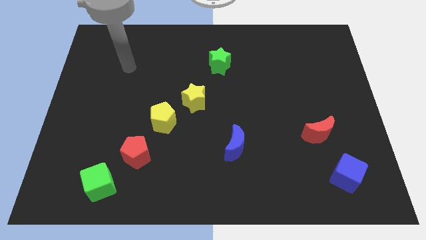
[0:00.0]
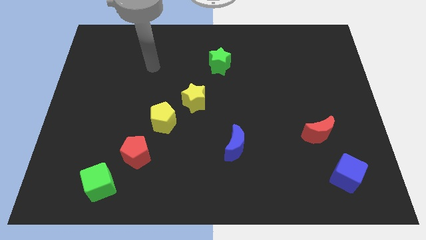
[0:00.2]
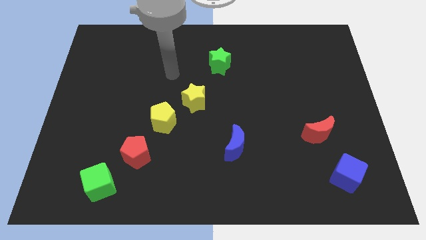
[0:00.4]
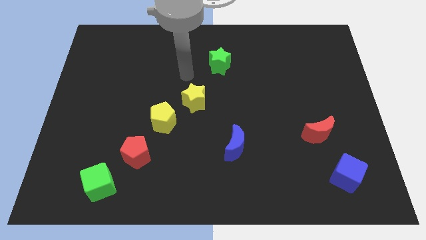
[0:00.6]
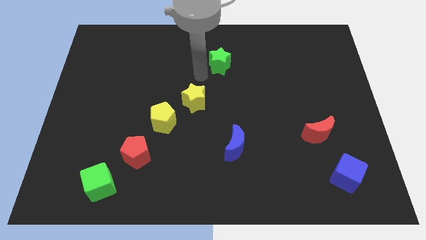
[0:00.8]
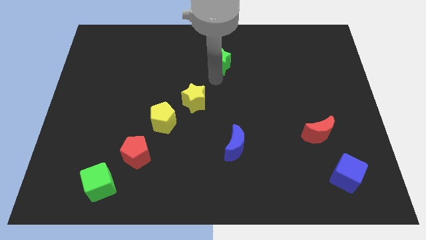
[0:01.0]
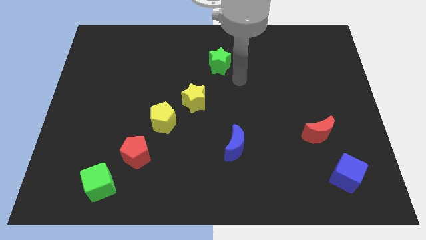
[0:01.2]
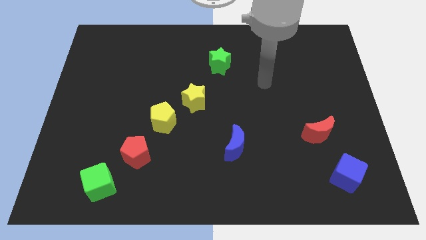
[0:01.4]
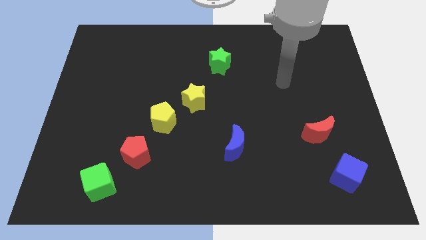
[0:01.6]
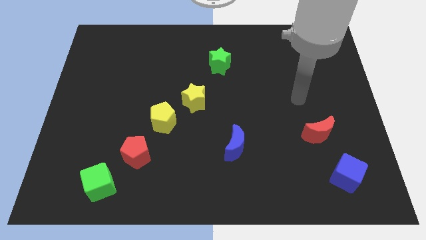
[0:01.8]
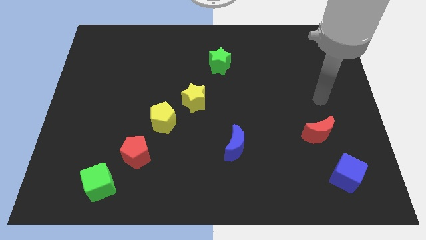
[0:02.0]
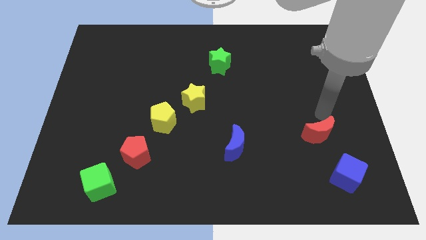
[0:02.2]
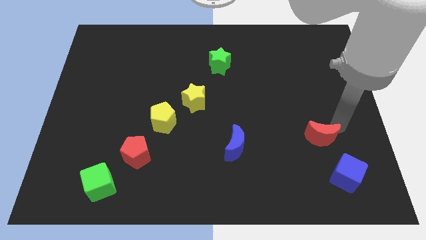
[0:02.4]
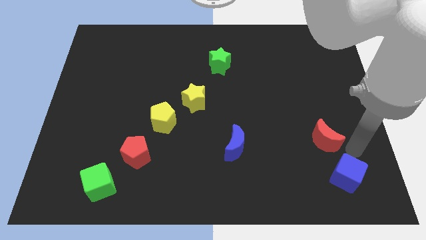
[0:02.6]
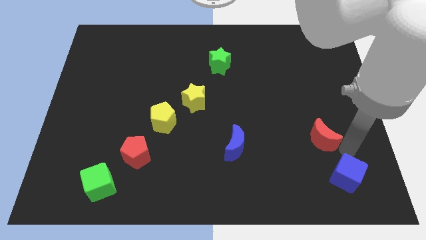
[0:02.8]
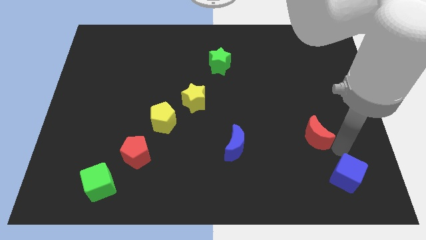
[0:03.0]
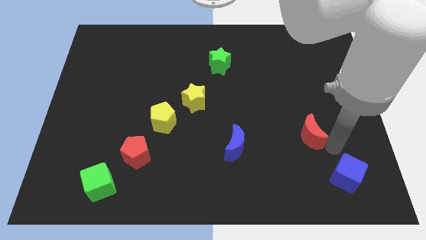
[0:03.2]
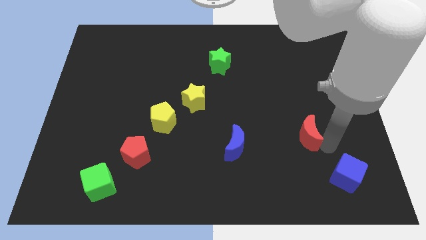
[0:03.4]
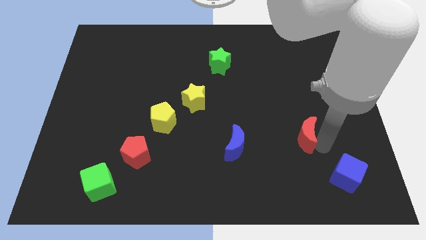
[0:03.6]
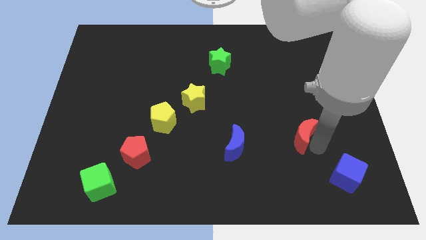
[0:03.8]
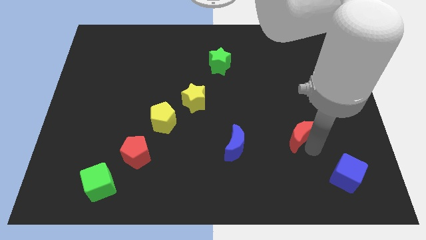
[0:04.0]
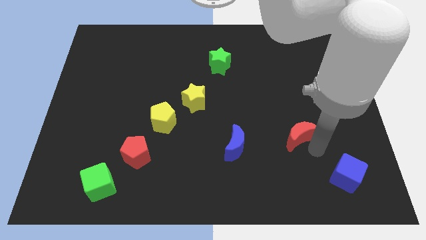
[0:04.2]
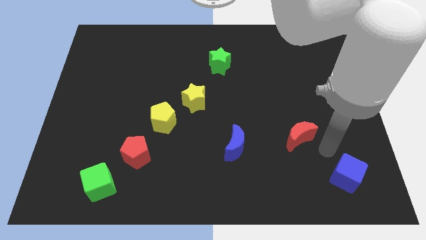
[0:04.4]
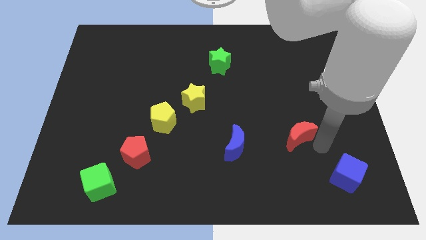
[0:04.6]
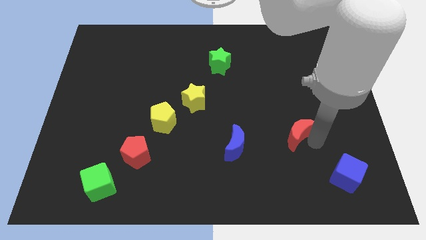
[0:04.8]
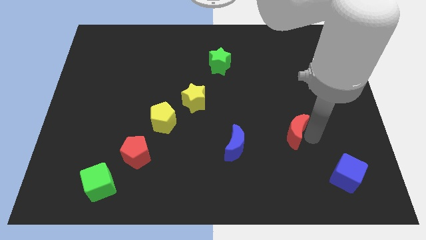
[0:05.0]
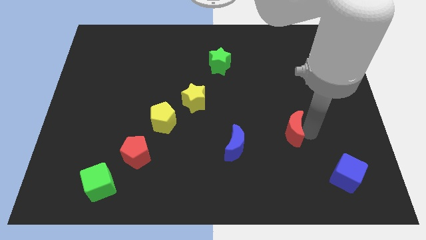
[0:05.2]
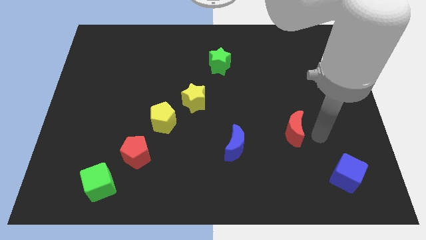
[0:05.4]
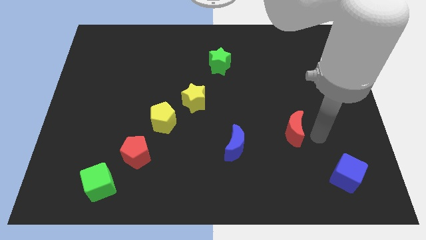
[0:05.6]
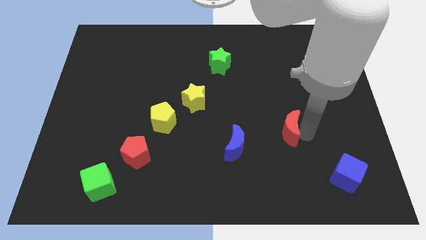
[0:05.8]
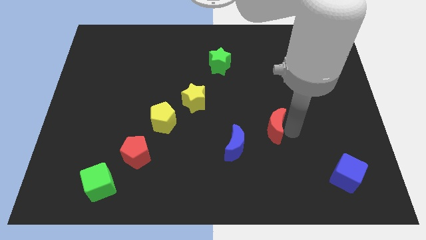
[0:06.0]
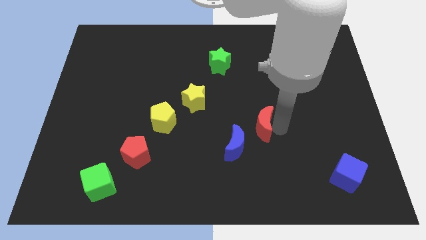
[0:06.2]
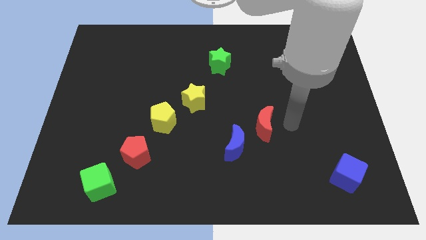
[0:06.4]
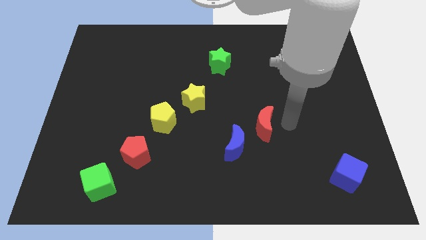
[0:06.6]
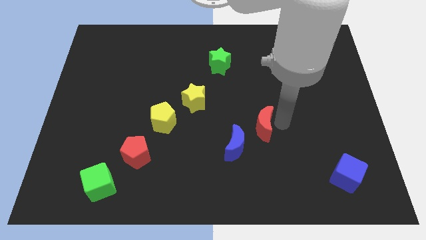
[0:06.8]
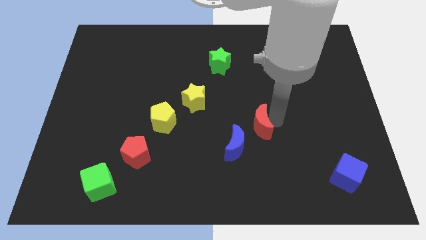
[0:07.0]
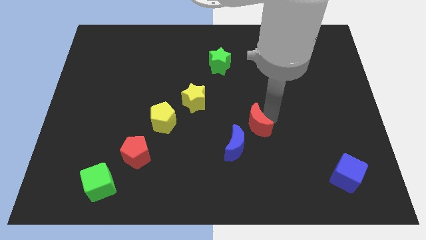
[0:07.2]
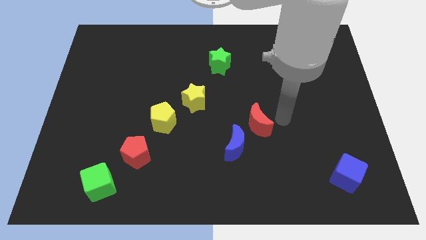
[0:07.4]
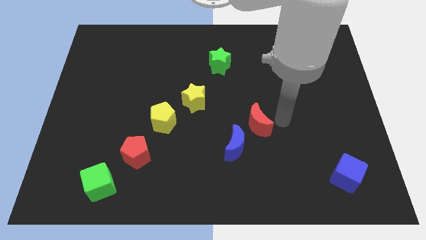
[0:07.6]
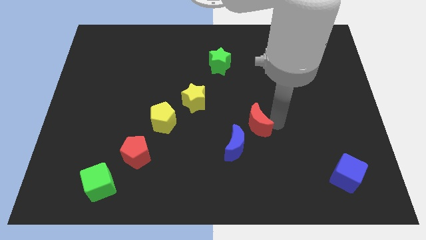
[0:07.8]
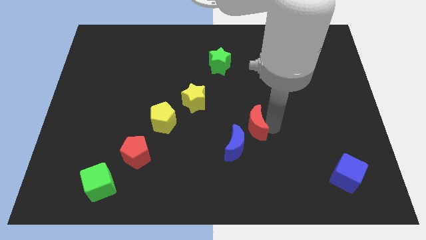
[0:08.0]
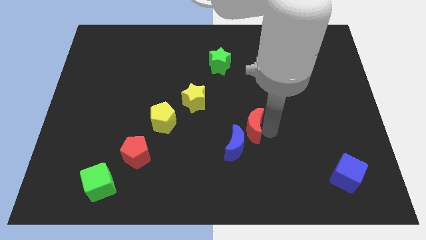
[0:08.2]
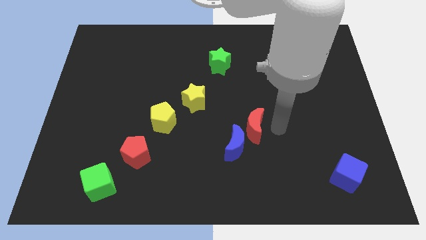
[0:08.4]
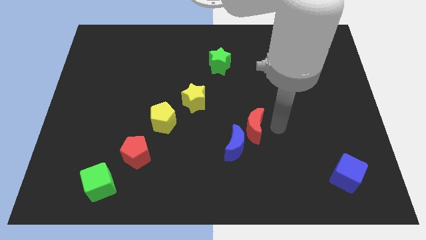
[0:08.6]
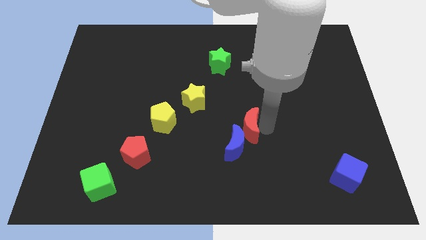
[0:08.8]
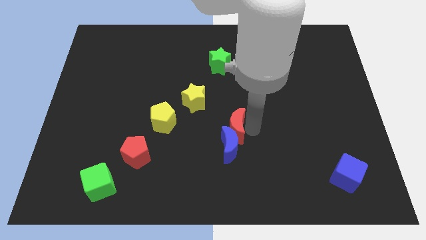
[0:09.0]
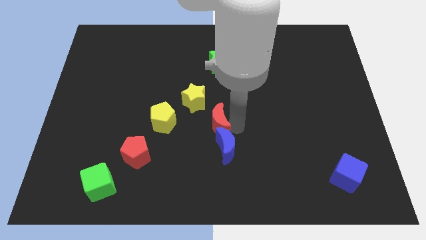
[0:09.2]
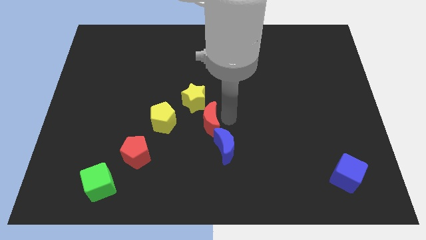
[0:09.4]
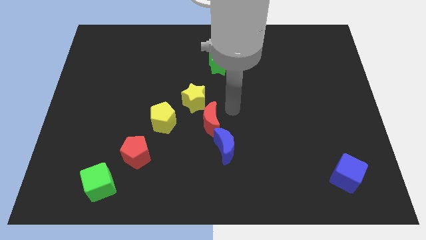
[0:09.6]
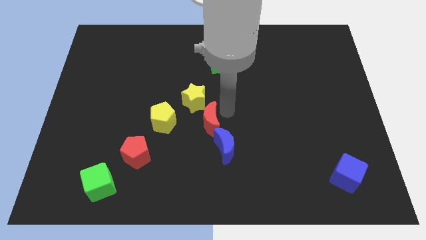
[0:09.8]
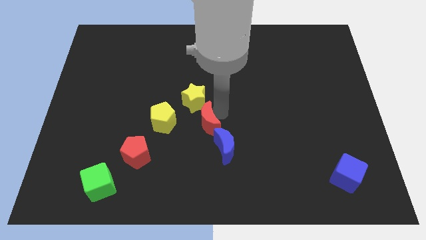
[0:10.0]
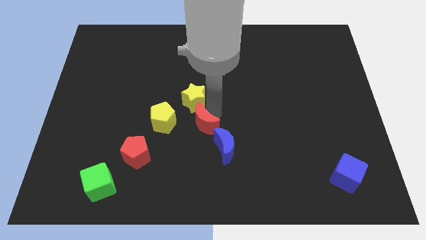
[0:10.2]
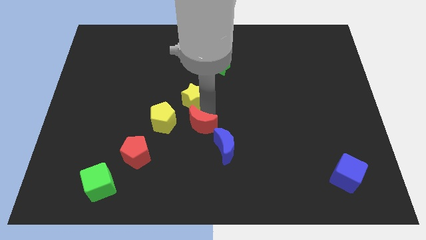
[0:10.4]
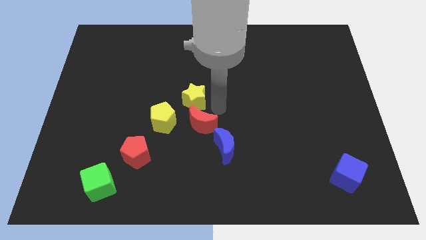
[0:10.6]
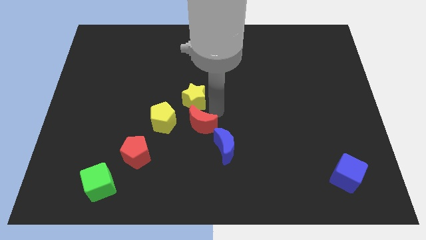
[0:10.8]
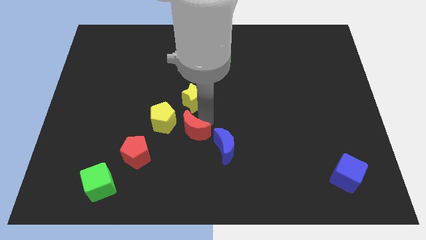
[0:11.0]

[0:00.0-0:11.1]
put the red moon diagonally down and to the right of the yellow pentagon

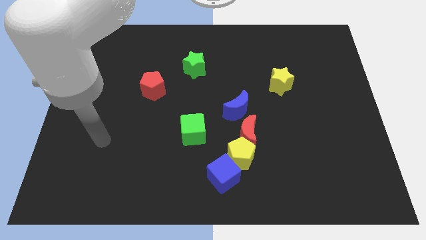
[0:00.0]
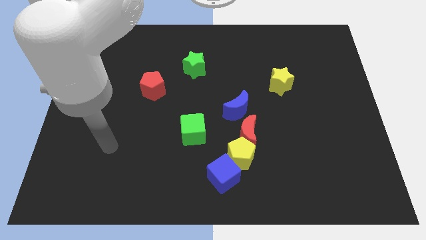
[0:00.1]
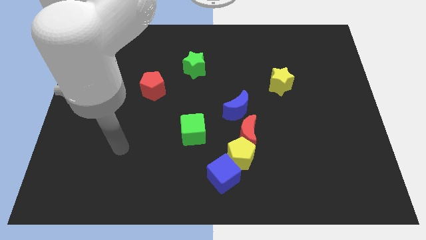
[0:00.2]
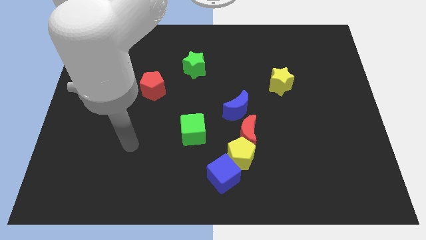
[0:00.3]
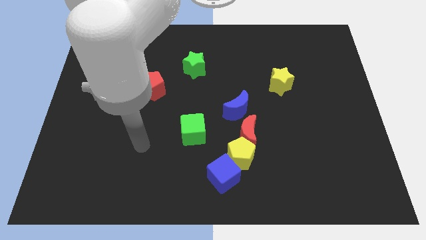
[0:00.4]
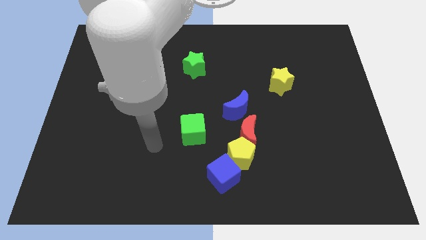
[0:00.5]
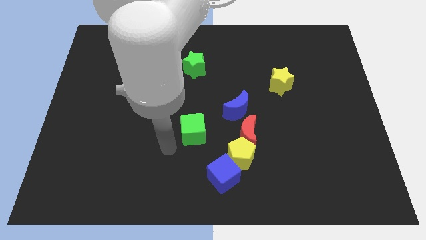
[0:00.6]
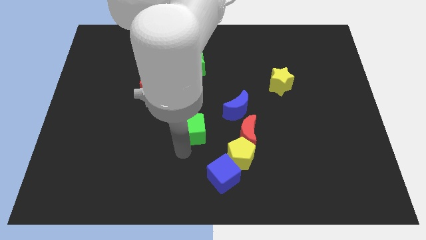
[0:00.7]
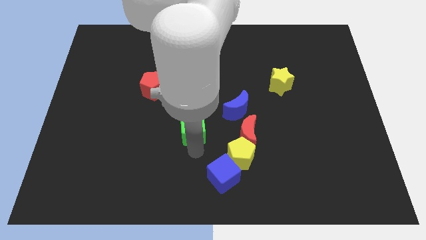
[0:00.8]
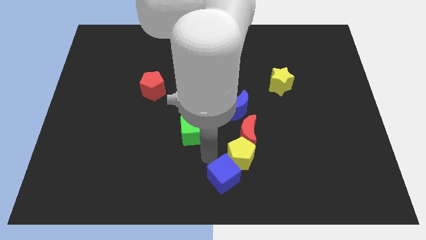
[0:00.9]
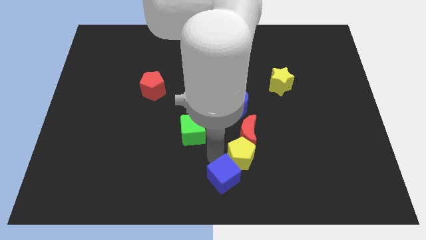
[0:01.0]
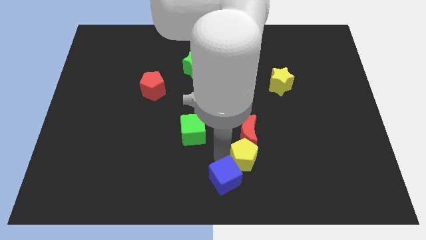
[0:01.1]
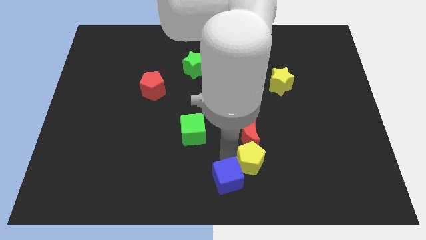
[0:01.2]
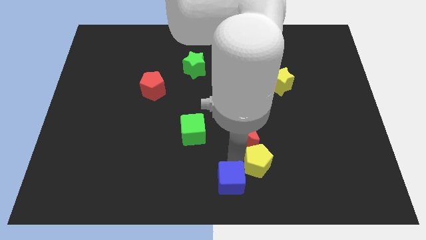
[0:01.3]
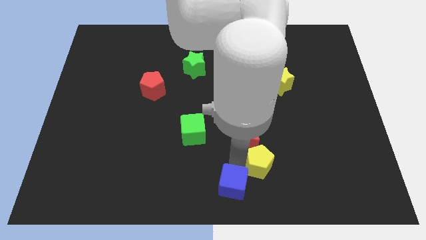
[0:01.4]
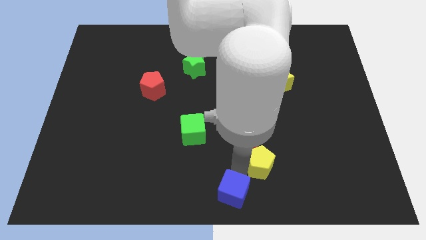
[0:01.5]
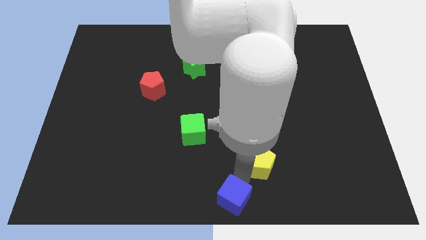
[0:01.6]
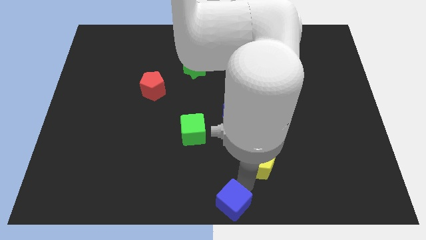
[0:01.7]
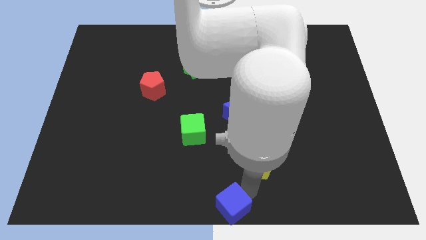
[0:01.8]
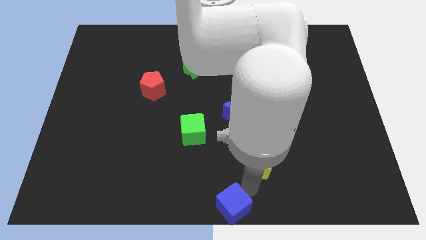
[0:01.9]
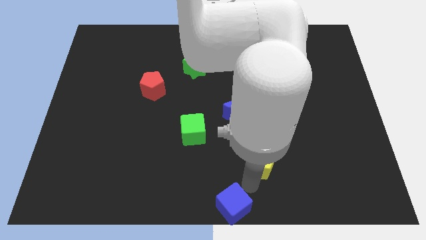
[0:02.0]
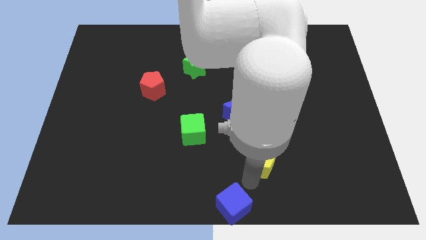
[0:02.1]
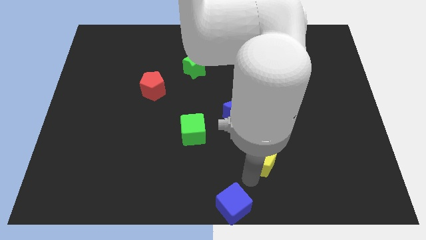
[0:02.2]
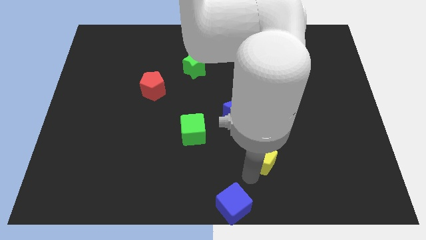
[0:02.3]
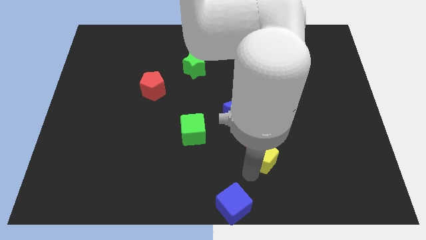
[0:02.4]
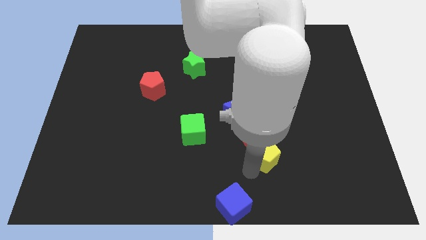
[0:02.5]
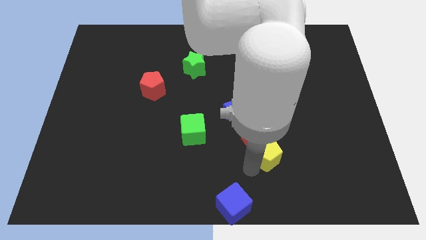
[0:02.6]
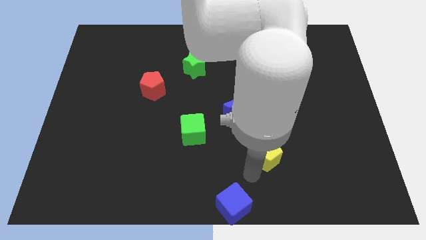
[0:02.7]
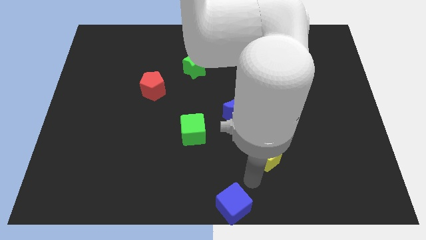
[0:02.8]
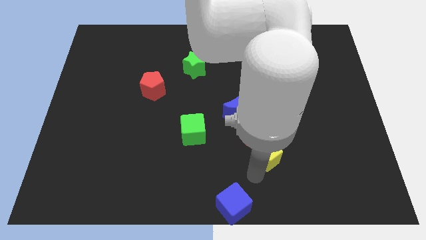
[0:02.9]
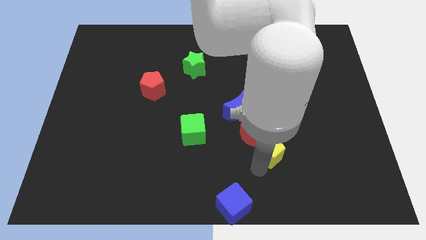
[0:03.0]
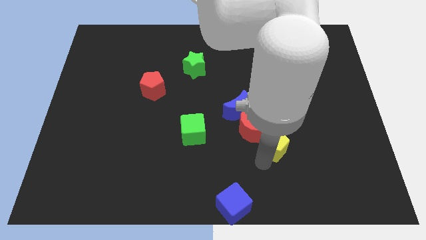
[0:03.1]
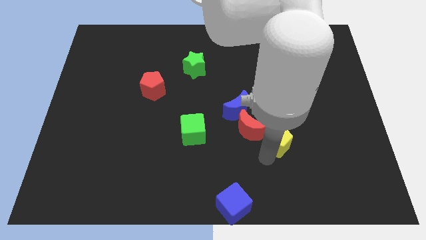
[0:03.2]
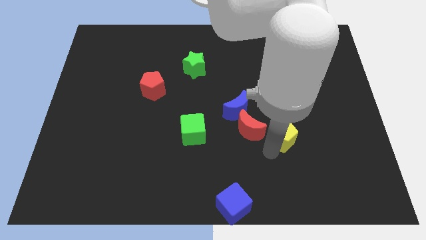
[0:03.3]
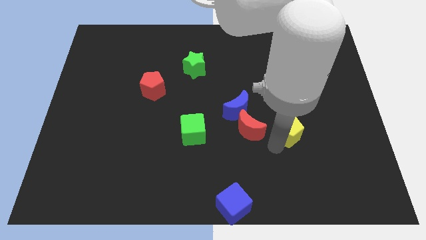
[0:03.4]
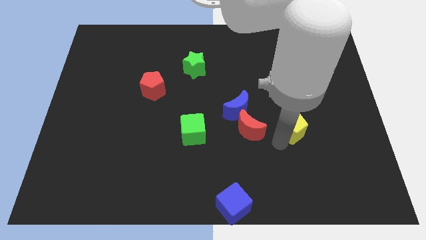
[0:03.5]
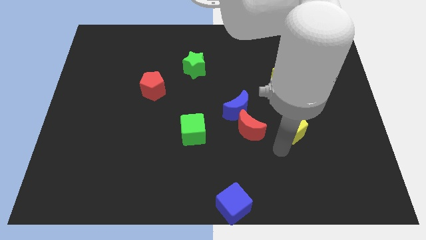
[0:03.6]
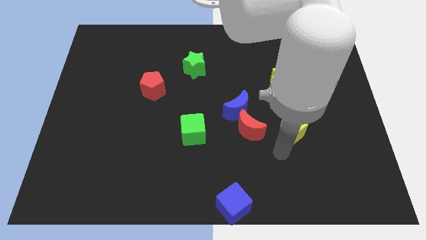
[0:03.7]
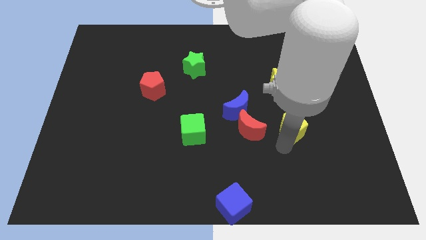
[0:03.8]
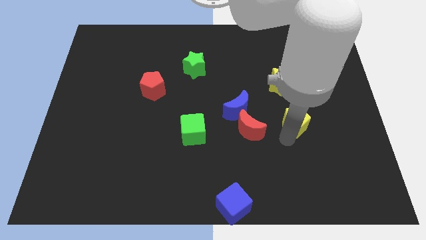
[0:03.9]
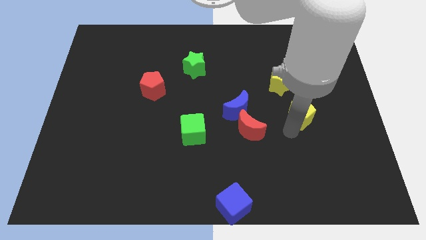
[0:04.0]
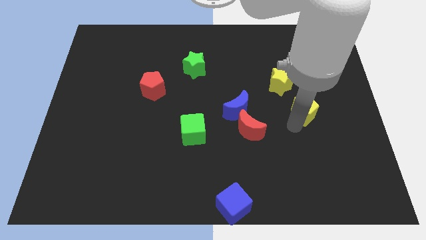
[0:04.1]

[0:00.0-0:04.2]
slide the yellow pentagon diagonally down and to the right of the yellow star
